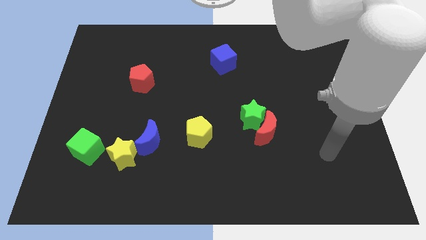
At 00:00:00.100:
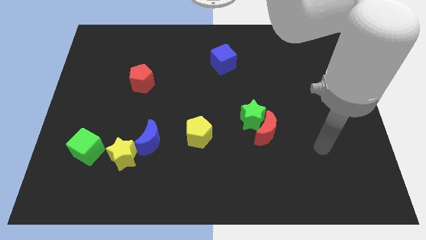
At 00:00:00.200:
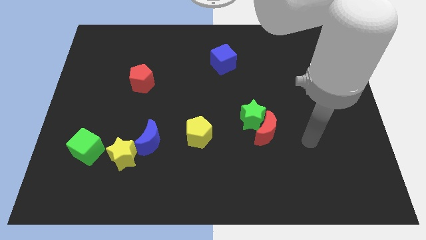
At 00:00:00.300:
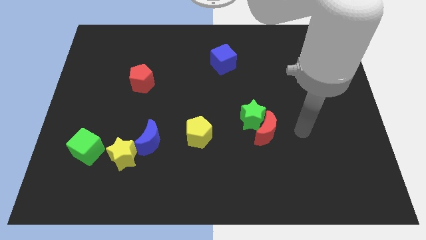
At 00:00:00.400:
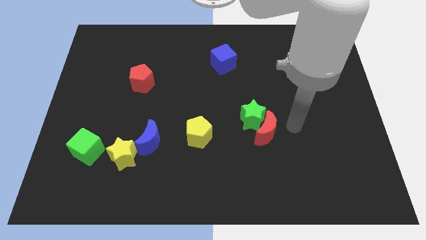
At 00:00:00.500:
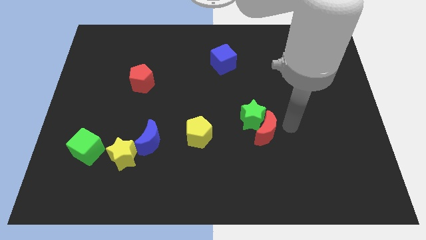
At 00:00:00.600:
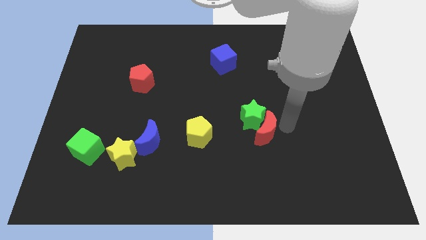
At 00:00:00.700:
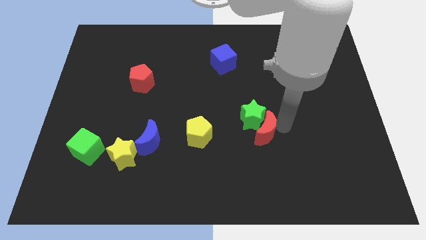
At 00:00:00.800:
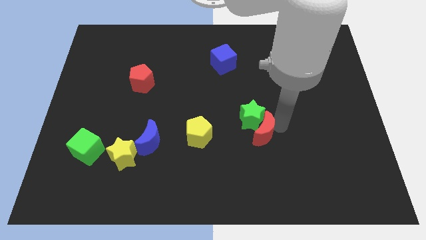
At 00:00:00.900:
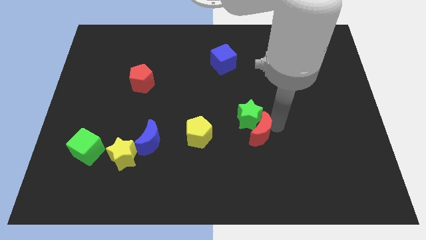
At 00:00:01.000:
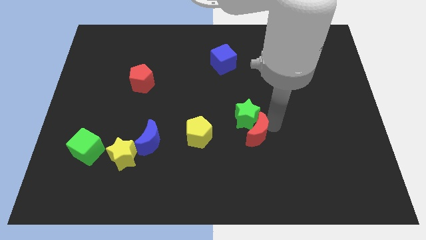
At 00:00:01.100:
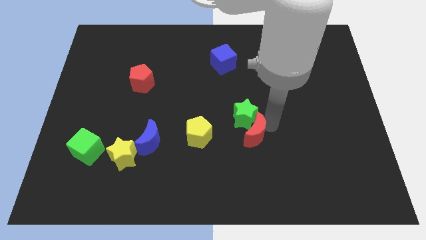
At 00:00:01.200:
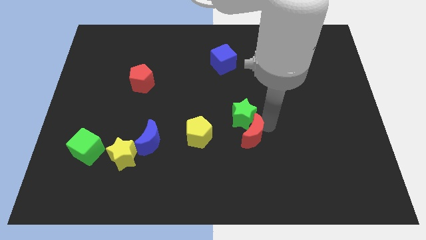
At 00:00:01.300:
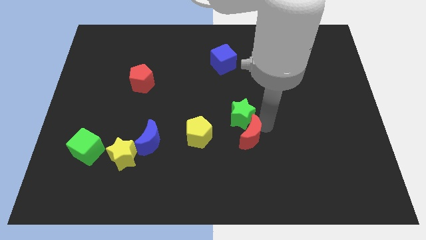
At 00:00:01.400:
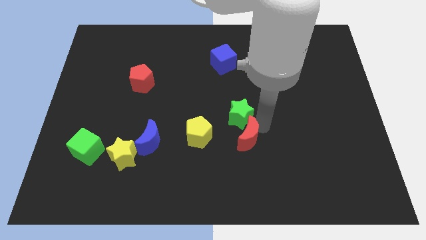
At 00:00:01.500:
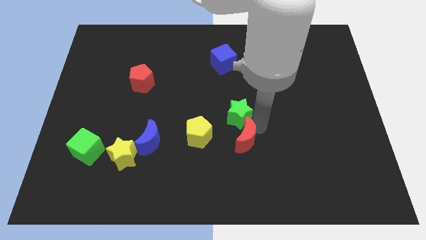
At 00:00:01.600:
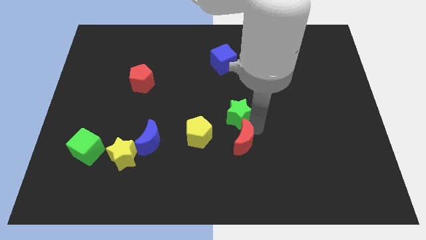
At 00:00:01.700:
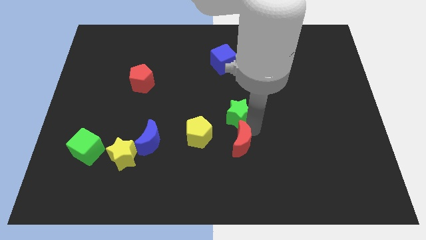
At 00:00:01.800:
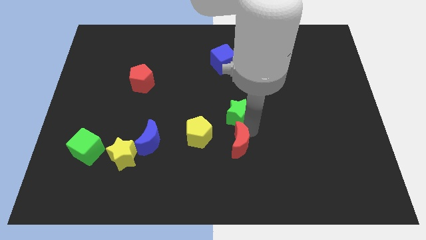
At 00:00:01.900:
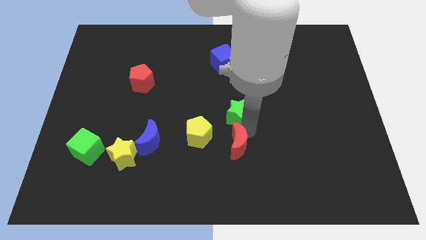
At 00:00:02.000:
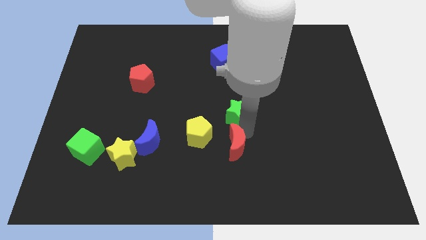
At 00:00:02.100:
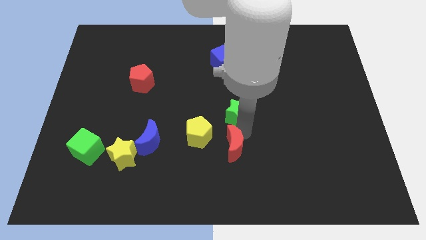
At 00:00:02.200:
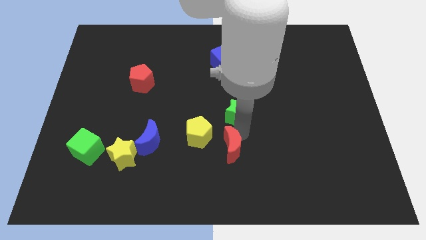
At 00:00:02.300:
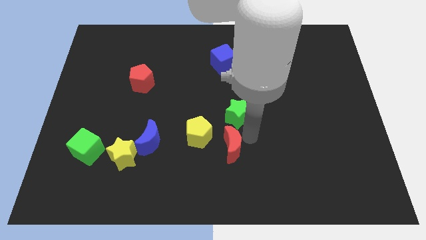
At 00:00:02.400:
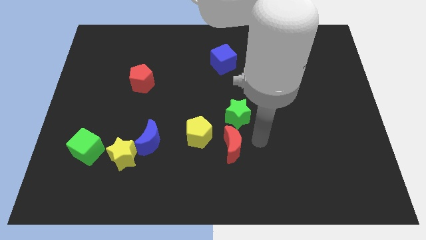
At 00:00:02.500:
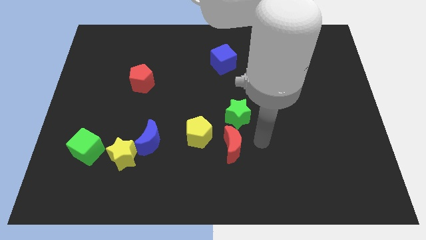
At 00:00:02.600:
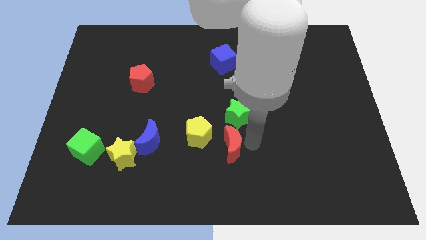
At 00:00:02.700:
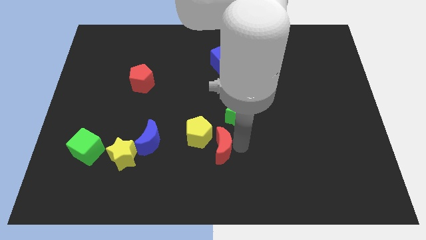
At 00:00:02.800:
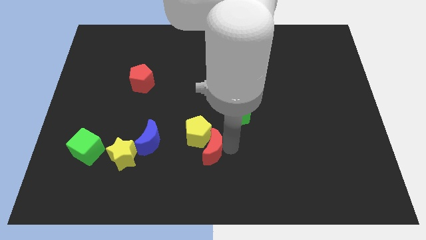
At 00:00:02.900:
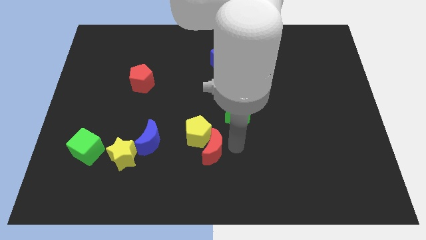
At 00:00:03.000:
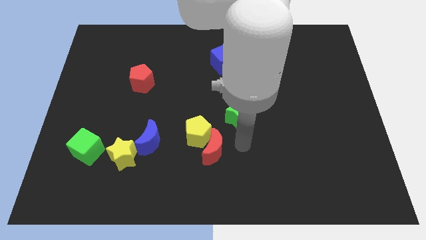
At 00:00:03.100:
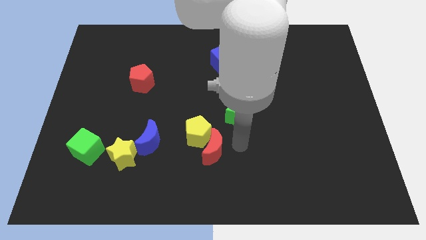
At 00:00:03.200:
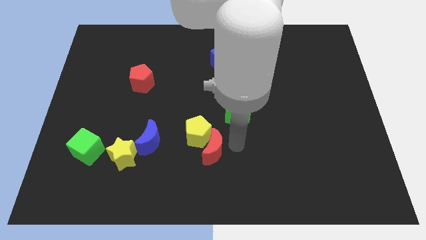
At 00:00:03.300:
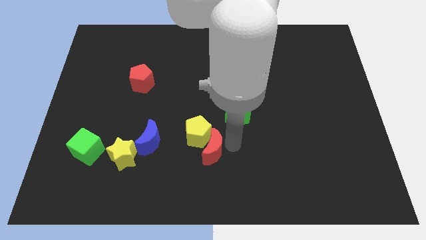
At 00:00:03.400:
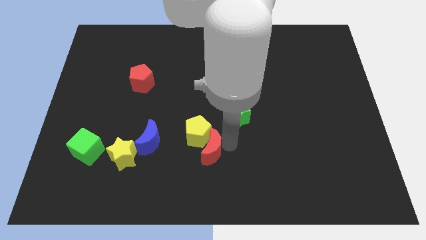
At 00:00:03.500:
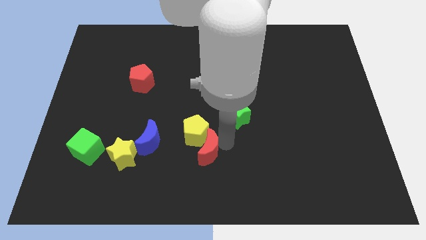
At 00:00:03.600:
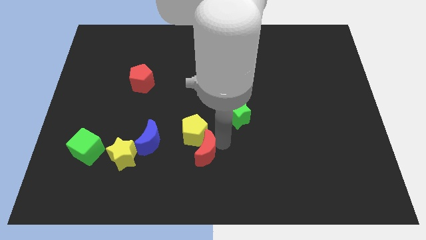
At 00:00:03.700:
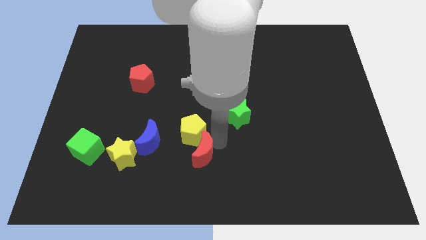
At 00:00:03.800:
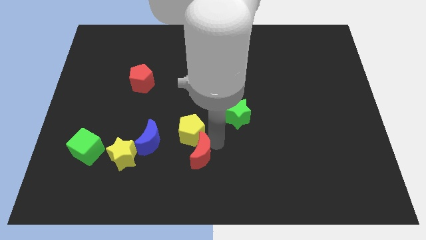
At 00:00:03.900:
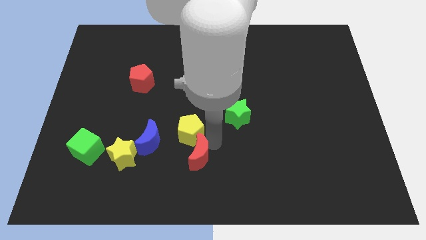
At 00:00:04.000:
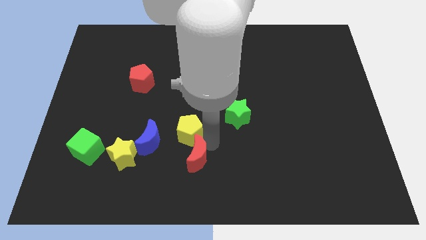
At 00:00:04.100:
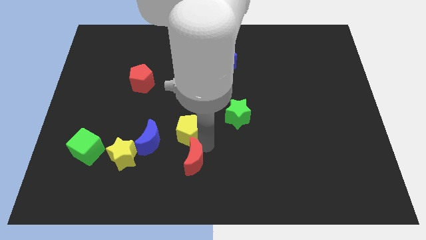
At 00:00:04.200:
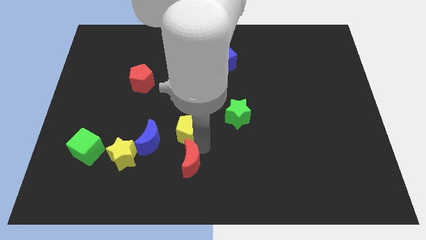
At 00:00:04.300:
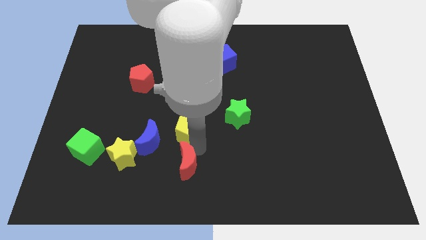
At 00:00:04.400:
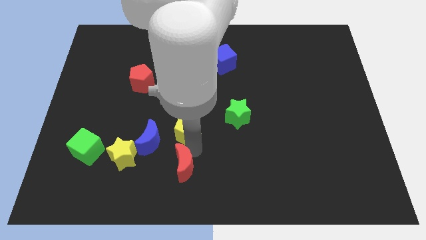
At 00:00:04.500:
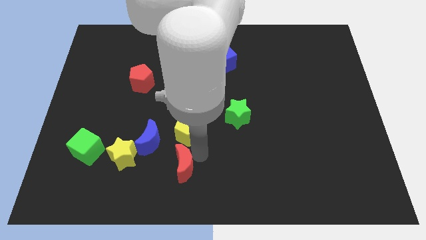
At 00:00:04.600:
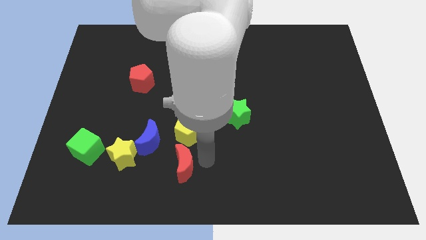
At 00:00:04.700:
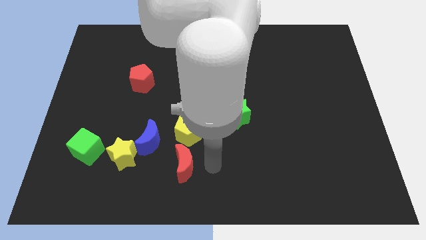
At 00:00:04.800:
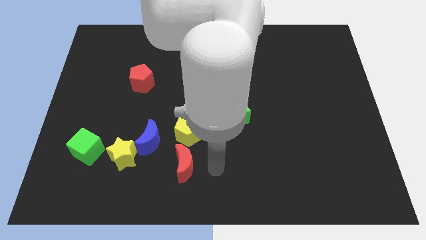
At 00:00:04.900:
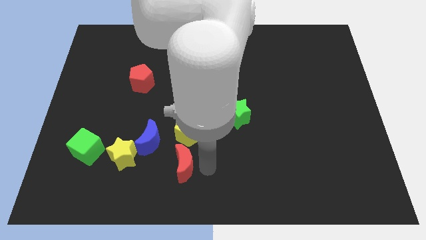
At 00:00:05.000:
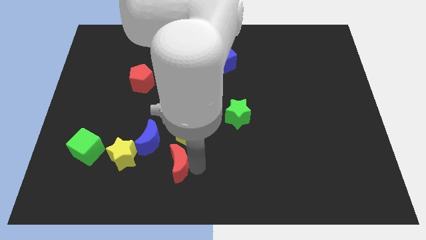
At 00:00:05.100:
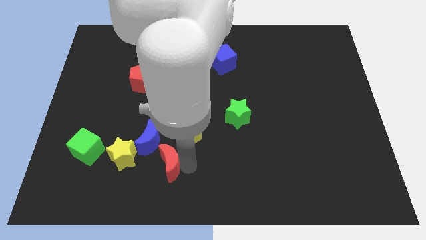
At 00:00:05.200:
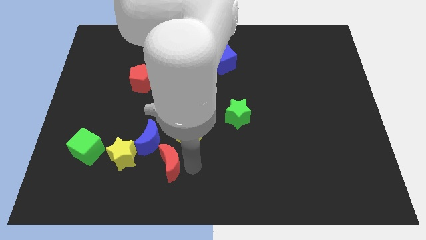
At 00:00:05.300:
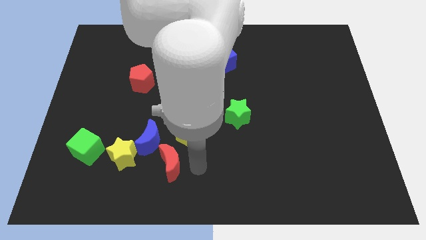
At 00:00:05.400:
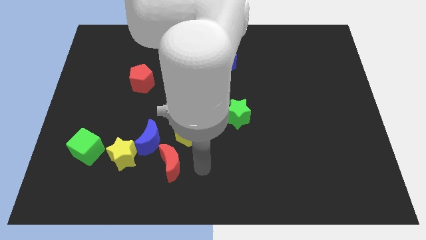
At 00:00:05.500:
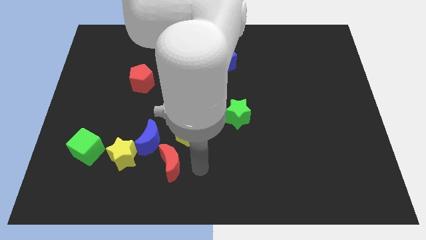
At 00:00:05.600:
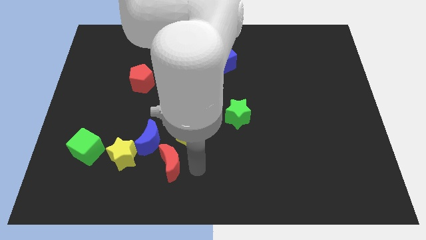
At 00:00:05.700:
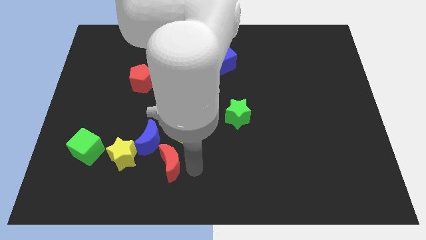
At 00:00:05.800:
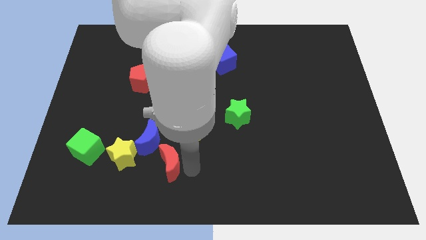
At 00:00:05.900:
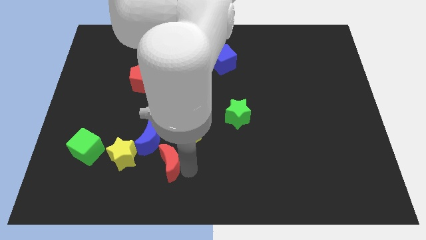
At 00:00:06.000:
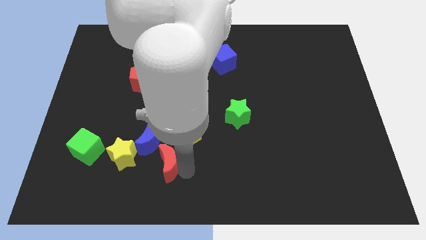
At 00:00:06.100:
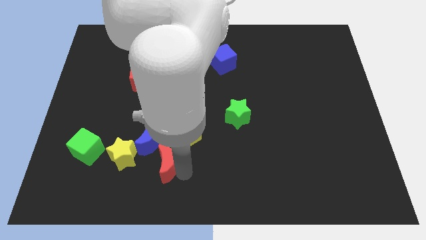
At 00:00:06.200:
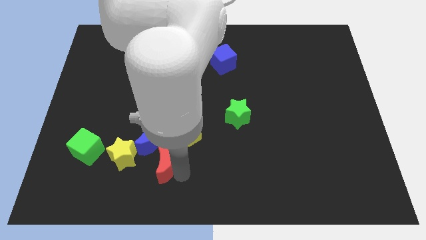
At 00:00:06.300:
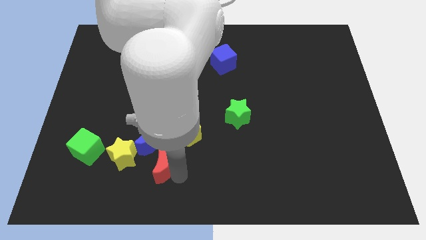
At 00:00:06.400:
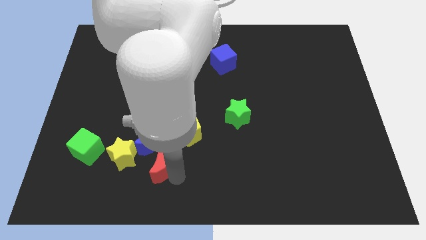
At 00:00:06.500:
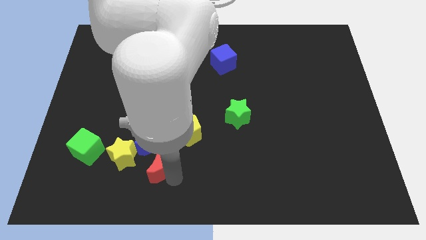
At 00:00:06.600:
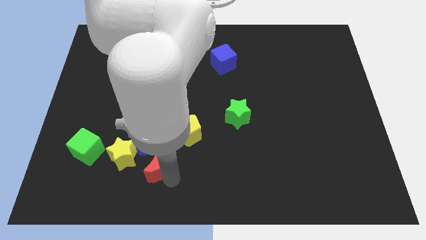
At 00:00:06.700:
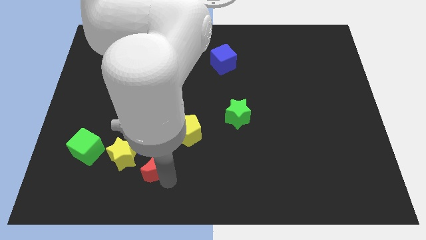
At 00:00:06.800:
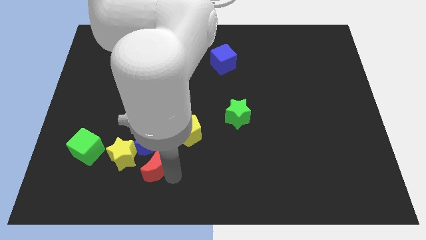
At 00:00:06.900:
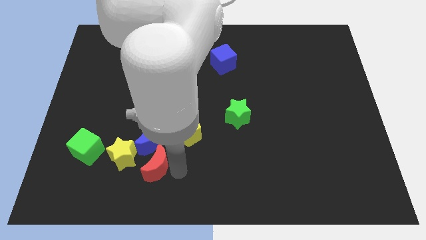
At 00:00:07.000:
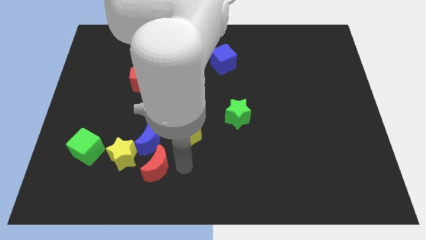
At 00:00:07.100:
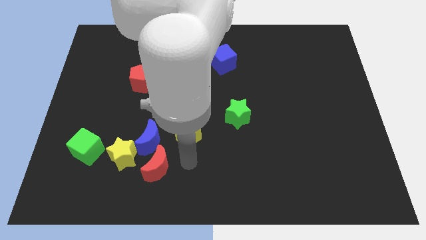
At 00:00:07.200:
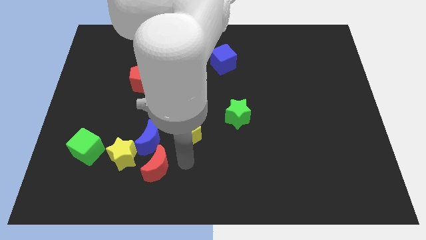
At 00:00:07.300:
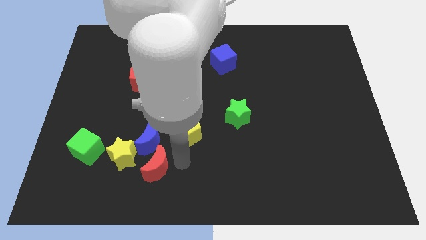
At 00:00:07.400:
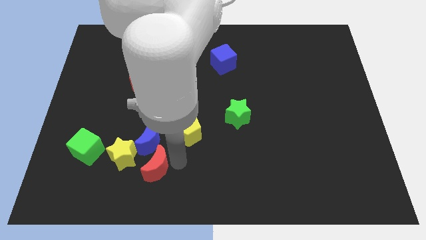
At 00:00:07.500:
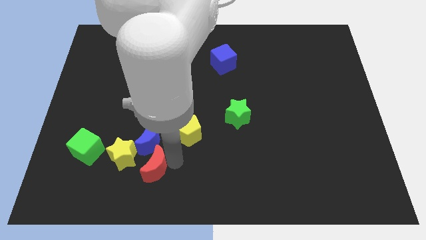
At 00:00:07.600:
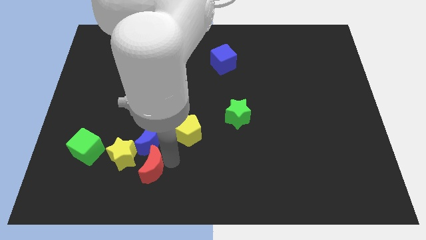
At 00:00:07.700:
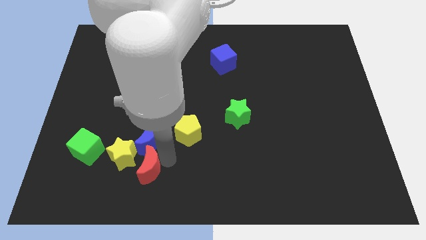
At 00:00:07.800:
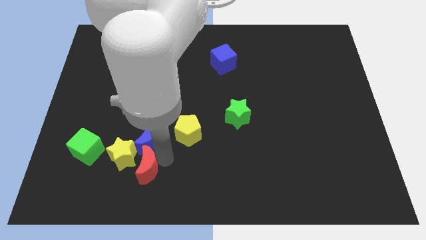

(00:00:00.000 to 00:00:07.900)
put the red moon to the bottom left of the blue moon
